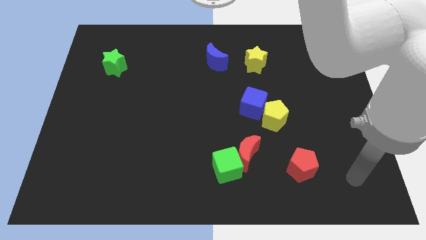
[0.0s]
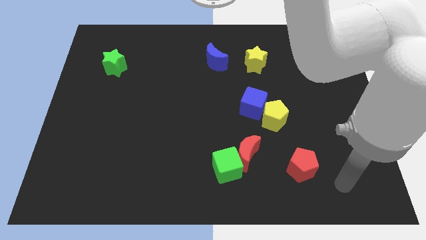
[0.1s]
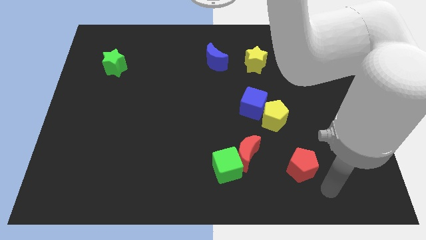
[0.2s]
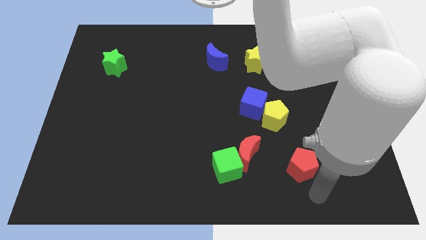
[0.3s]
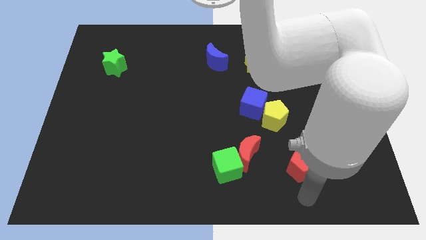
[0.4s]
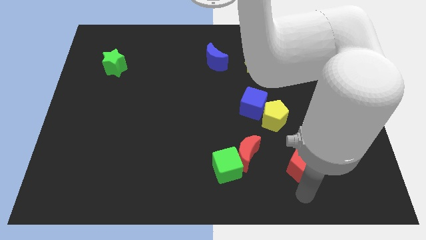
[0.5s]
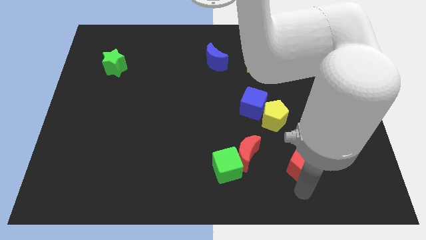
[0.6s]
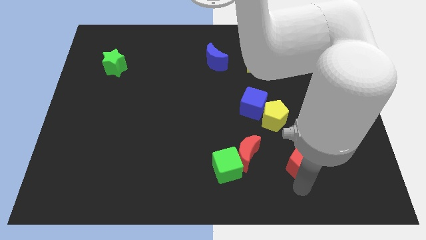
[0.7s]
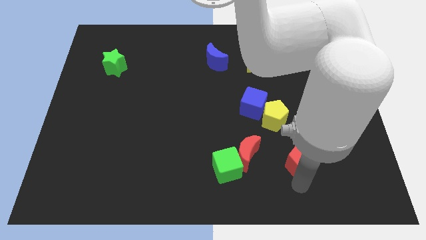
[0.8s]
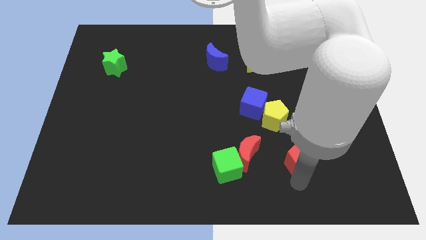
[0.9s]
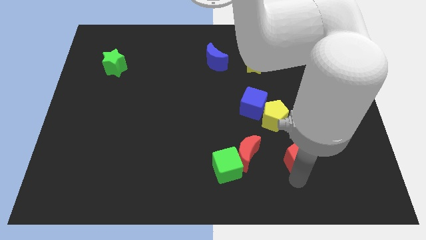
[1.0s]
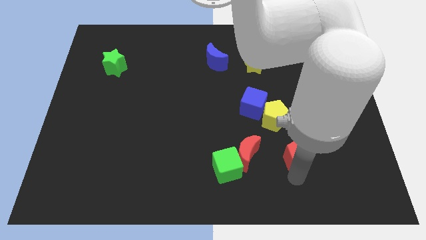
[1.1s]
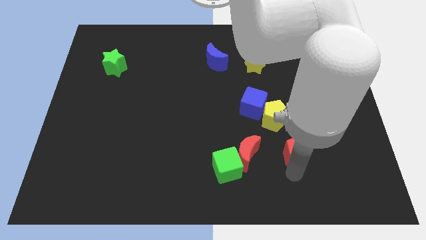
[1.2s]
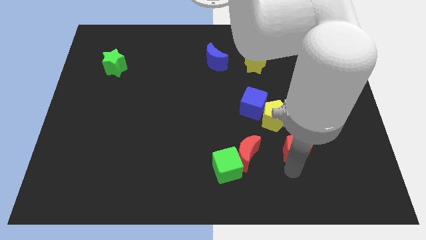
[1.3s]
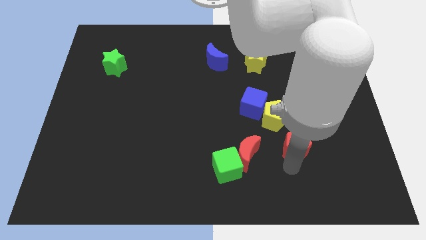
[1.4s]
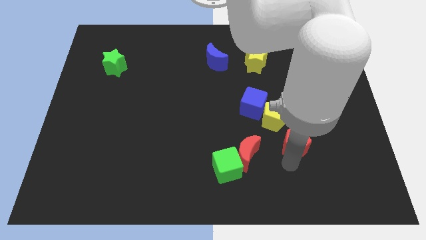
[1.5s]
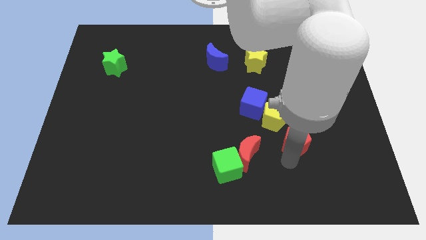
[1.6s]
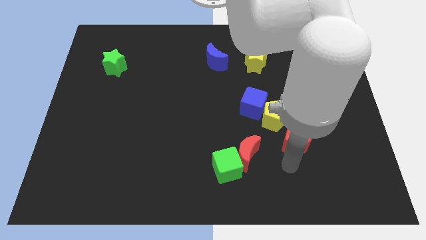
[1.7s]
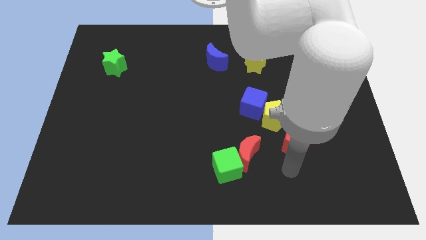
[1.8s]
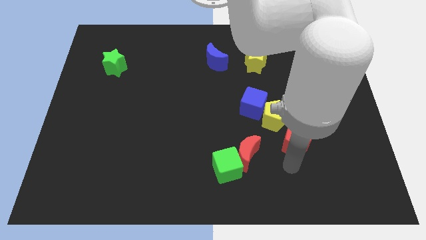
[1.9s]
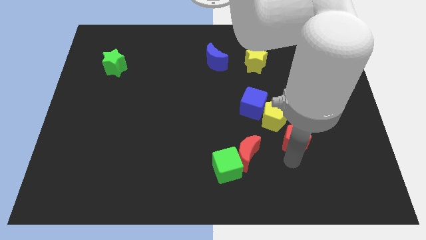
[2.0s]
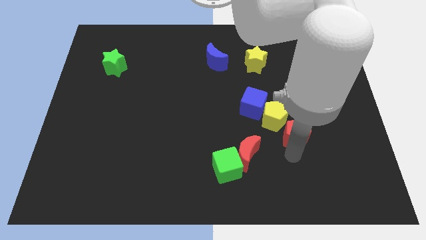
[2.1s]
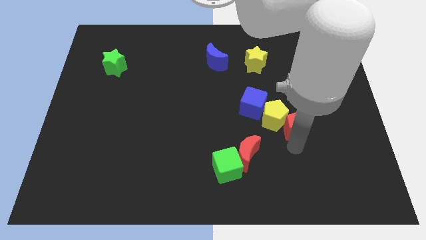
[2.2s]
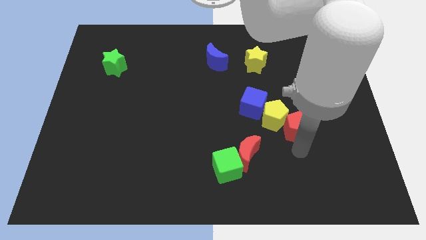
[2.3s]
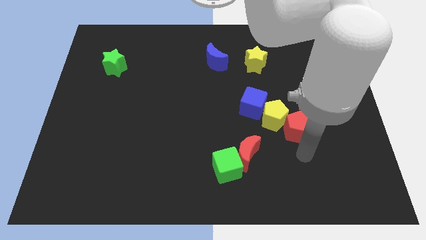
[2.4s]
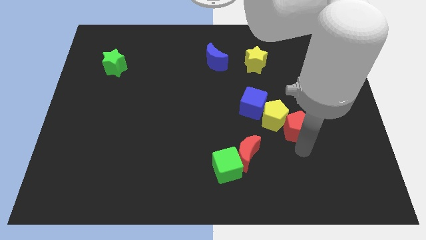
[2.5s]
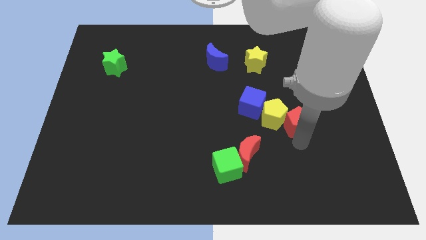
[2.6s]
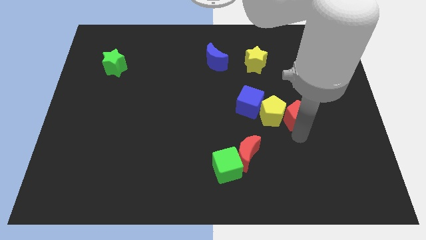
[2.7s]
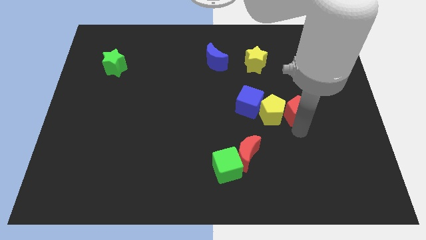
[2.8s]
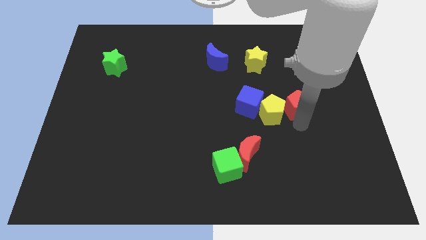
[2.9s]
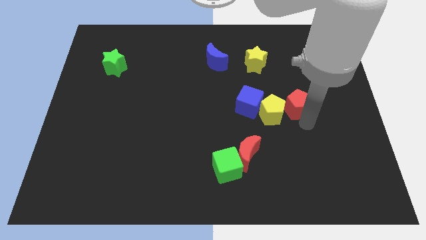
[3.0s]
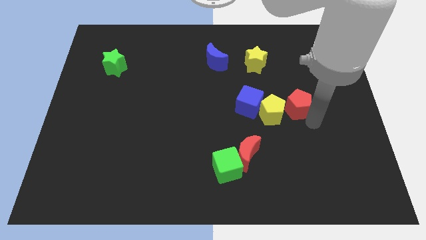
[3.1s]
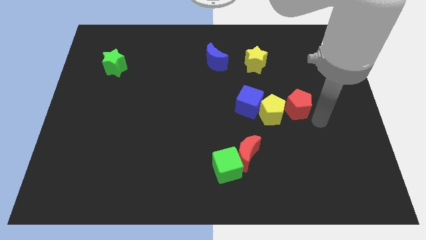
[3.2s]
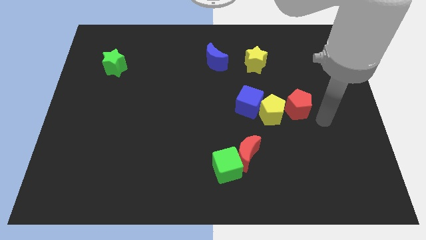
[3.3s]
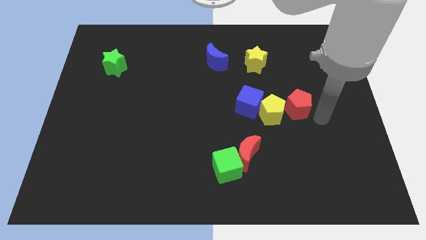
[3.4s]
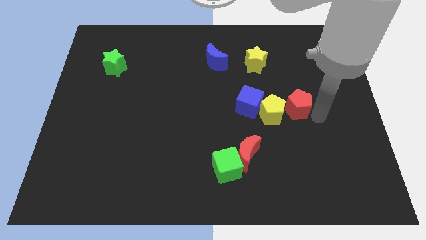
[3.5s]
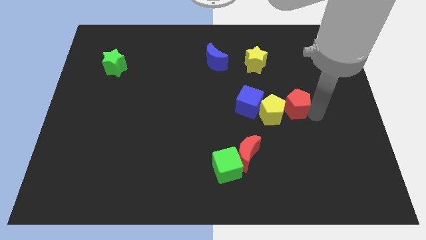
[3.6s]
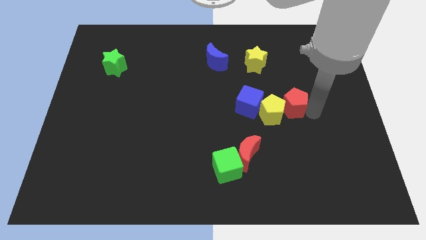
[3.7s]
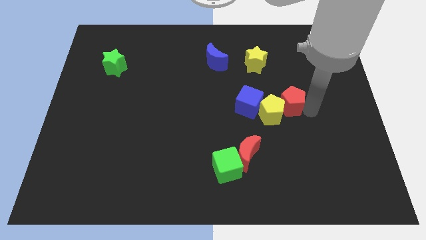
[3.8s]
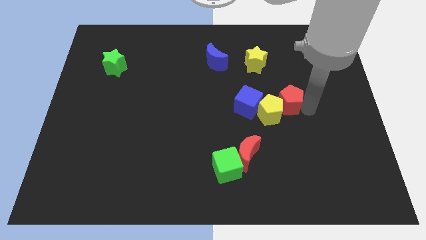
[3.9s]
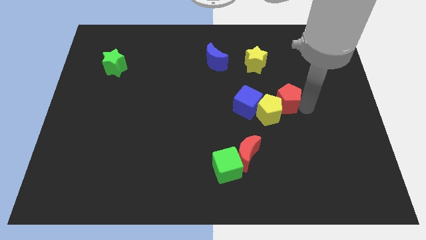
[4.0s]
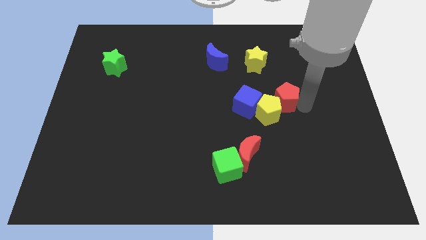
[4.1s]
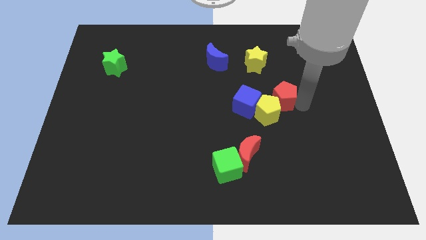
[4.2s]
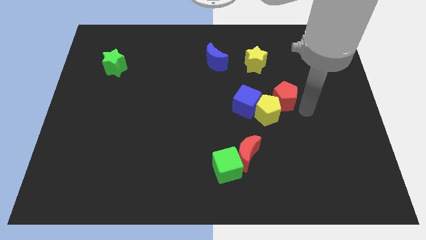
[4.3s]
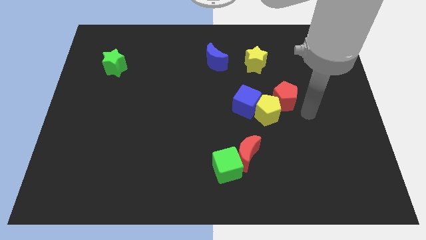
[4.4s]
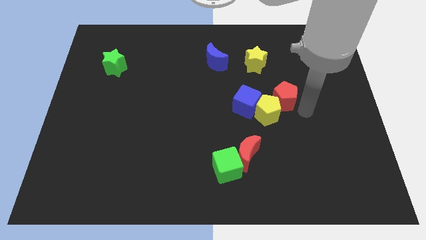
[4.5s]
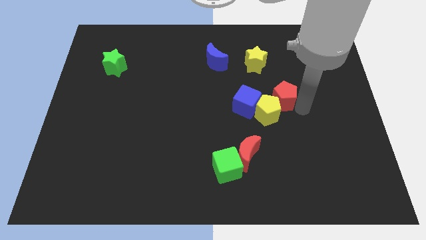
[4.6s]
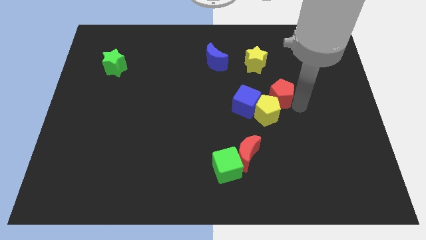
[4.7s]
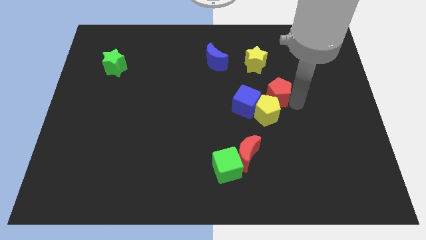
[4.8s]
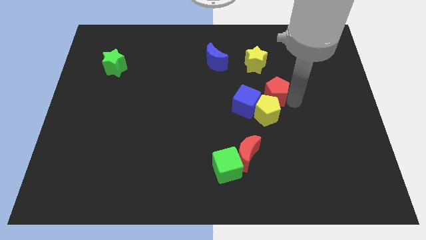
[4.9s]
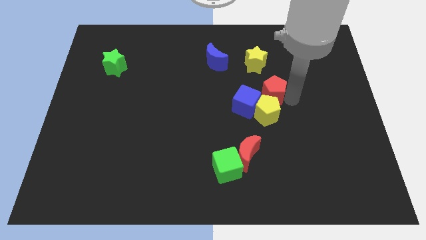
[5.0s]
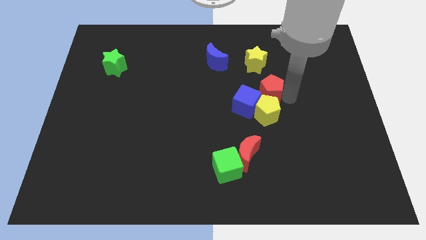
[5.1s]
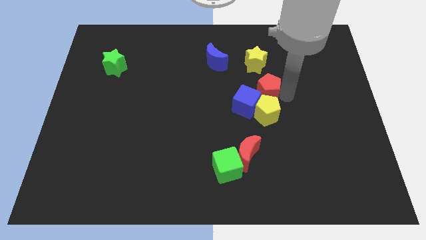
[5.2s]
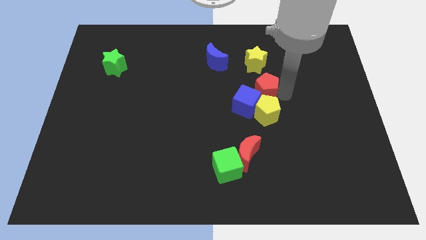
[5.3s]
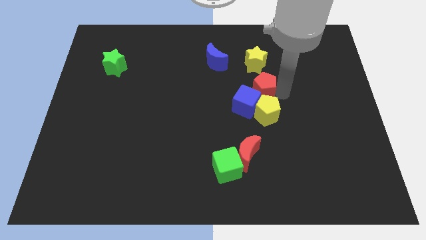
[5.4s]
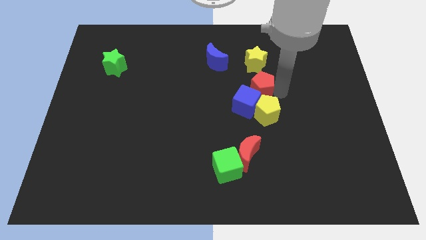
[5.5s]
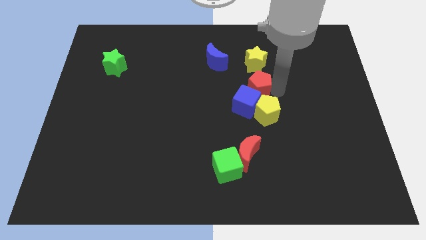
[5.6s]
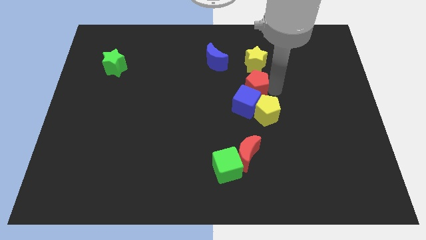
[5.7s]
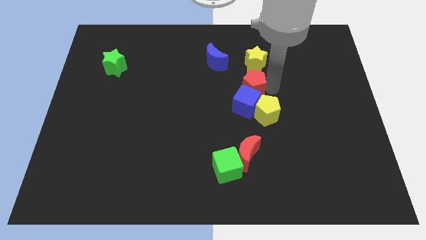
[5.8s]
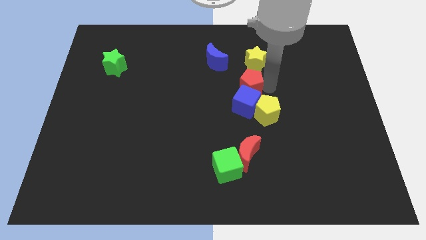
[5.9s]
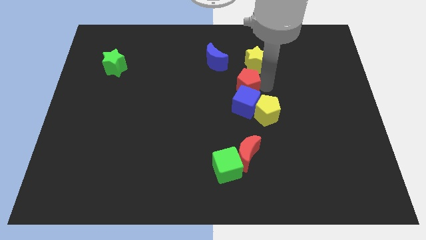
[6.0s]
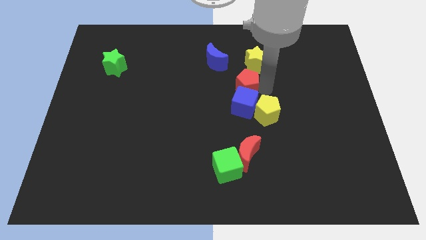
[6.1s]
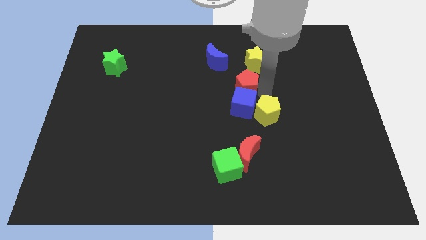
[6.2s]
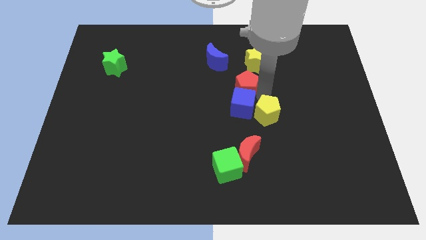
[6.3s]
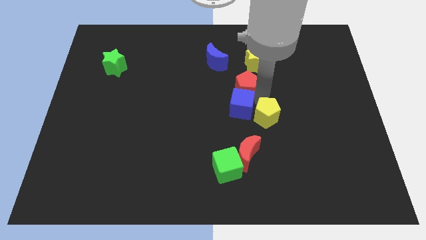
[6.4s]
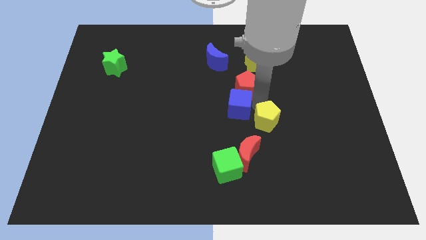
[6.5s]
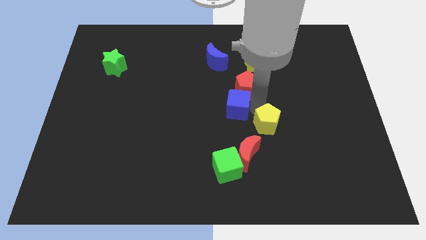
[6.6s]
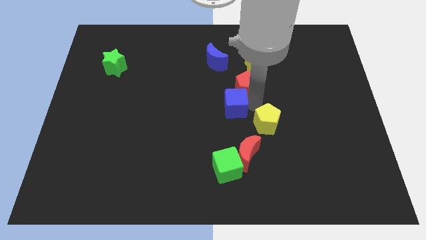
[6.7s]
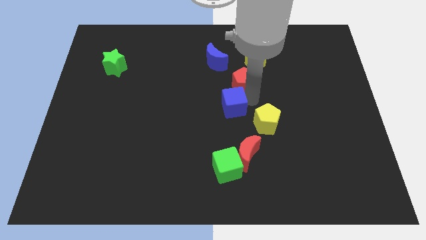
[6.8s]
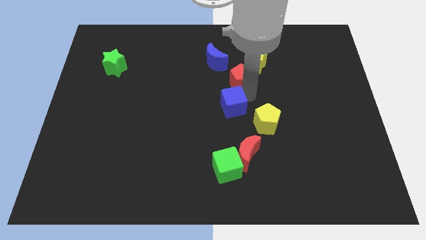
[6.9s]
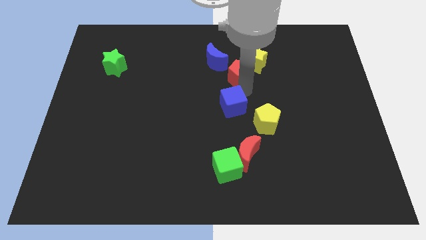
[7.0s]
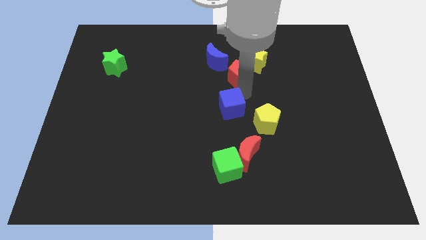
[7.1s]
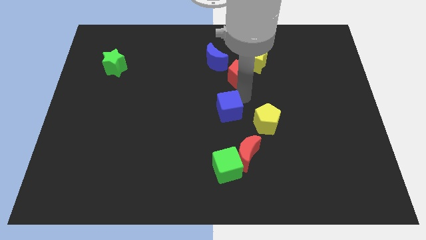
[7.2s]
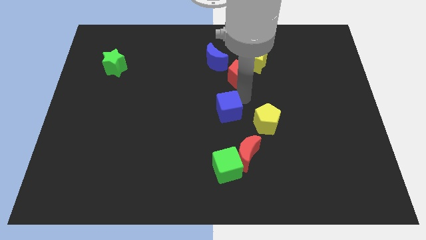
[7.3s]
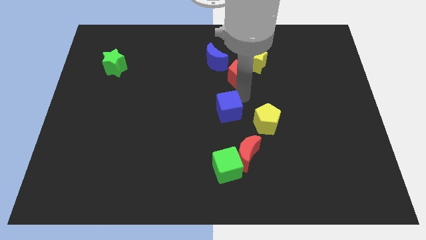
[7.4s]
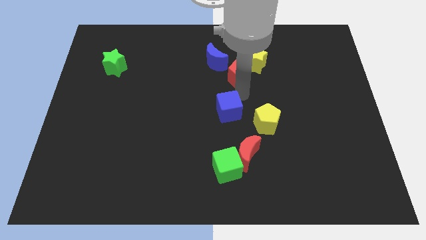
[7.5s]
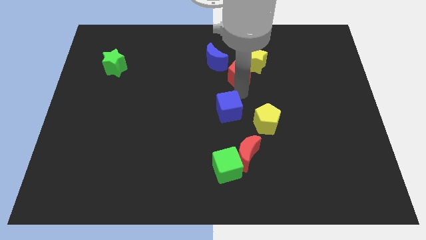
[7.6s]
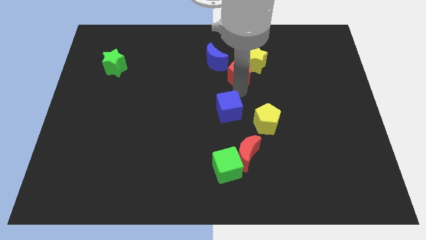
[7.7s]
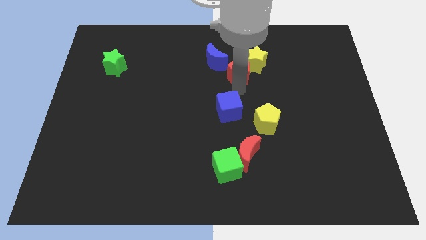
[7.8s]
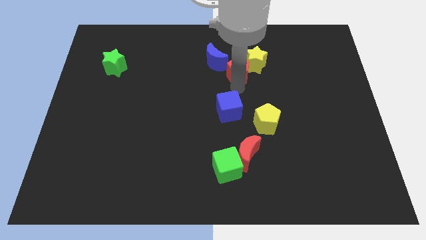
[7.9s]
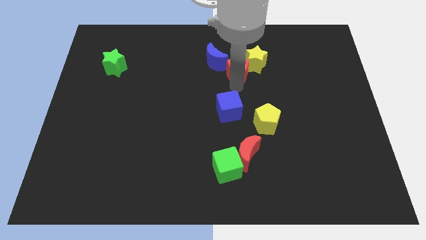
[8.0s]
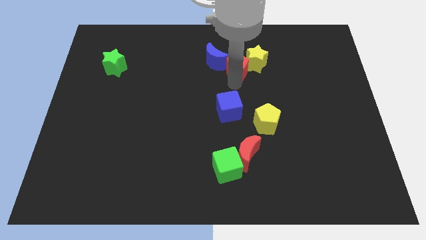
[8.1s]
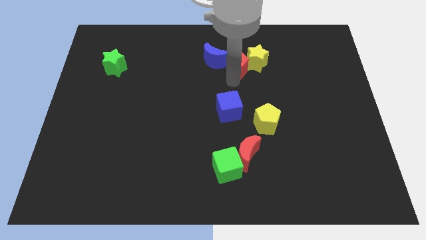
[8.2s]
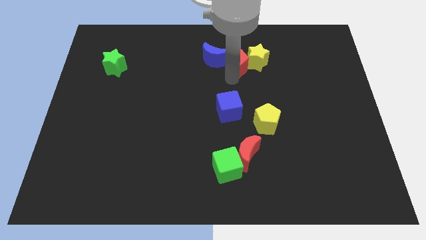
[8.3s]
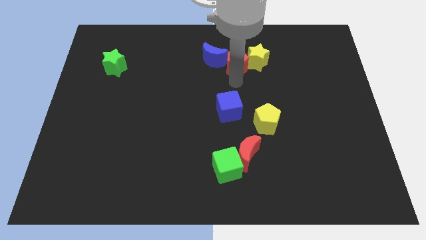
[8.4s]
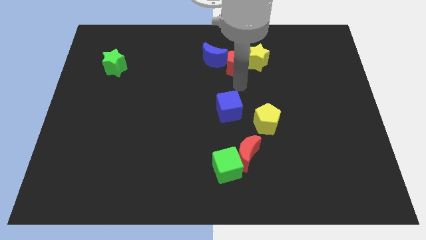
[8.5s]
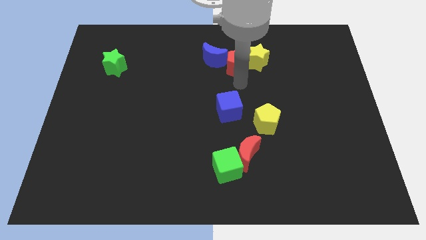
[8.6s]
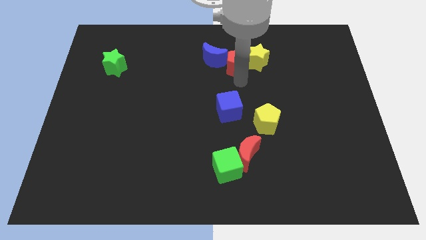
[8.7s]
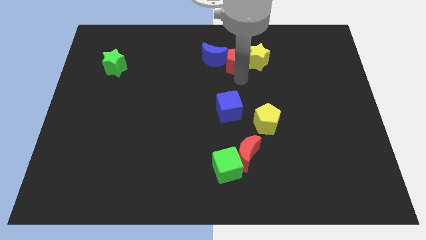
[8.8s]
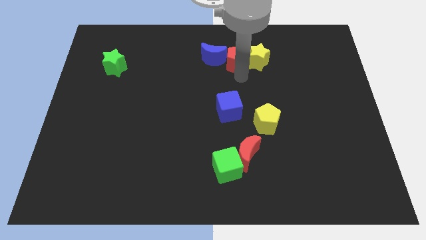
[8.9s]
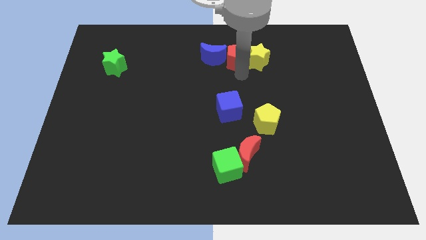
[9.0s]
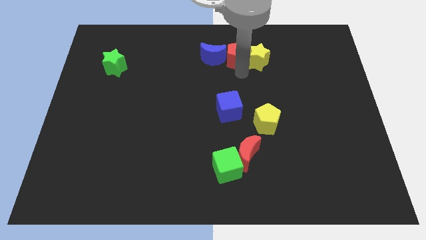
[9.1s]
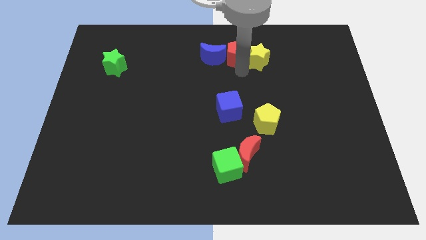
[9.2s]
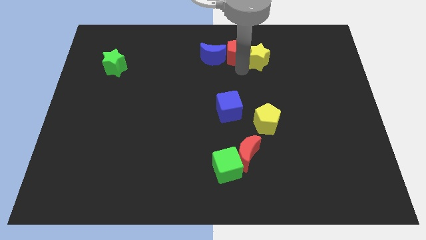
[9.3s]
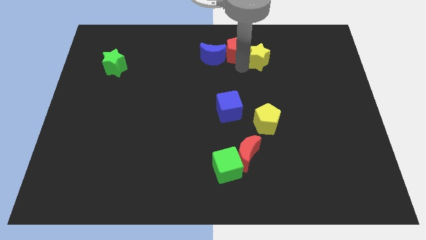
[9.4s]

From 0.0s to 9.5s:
move the red pentagon to the towards your base
